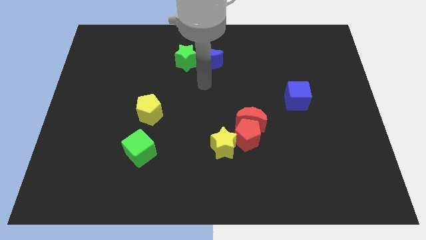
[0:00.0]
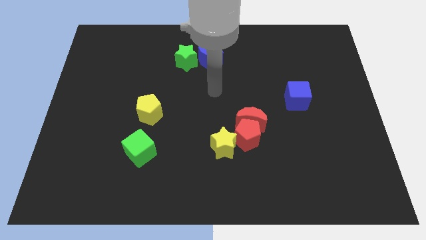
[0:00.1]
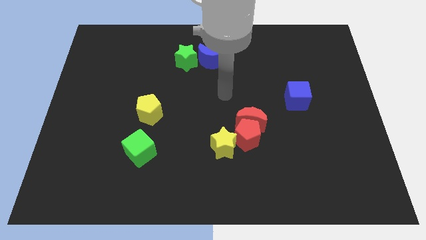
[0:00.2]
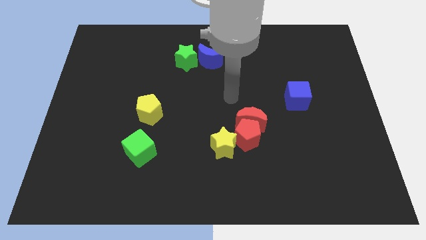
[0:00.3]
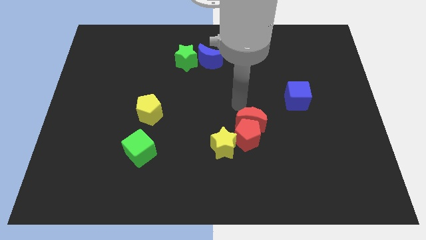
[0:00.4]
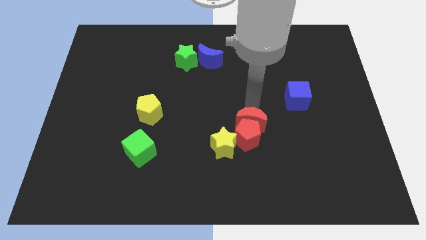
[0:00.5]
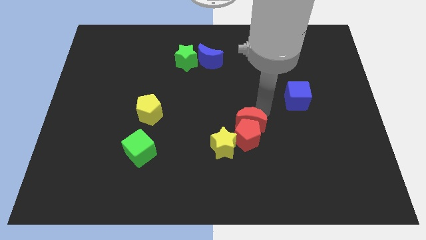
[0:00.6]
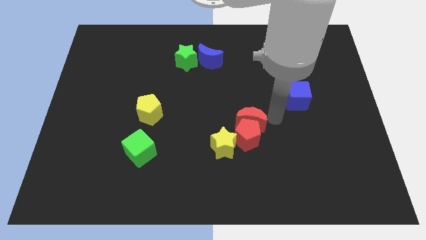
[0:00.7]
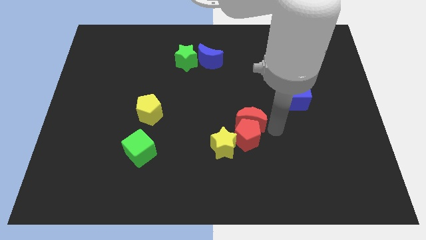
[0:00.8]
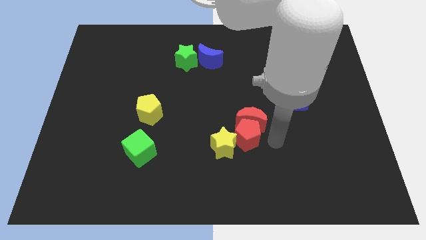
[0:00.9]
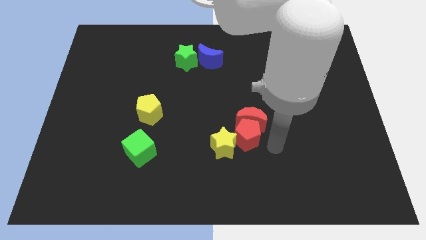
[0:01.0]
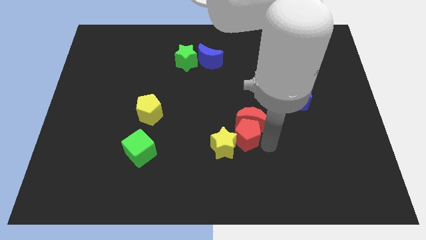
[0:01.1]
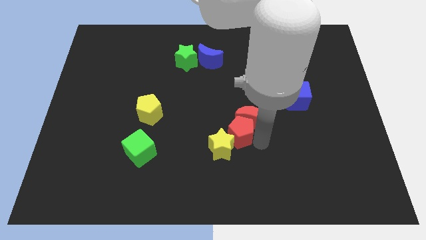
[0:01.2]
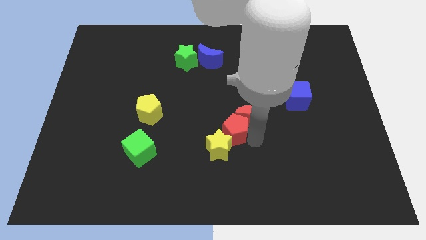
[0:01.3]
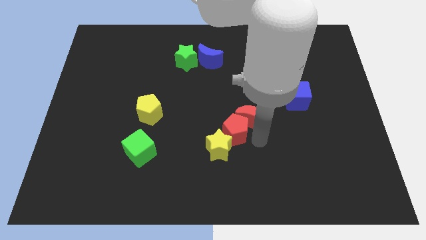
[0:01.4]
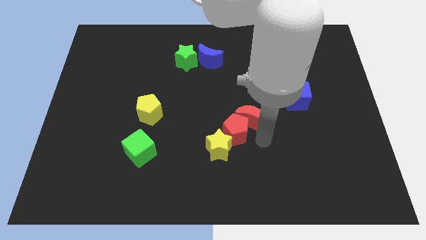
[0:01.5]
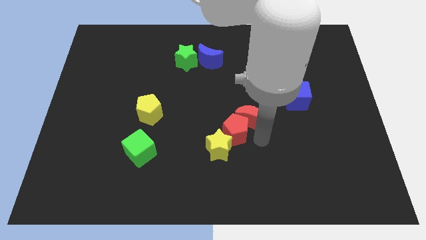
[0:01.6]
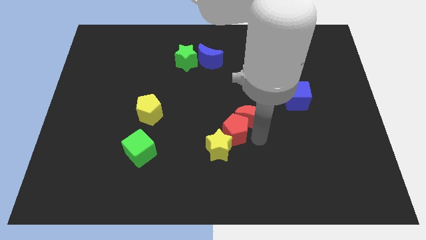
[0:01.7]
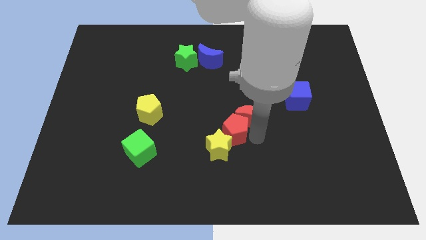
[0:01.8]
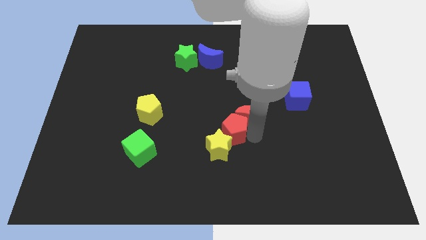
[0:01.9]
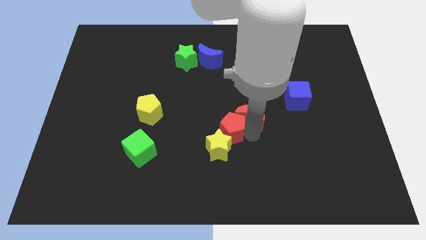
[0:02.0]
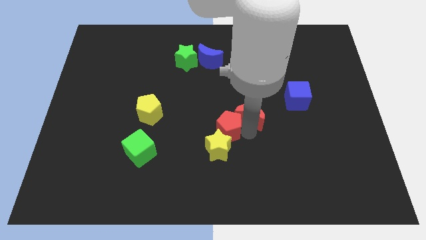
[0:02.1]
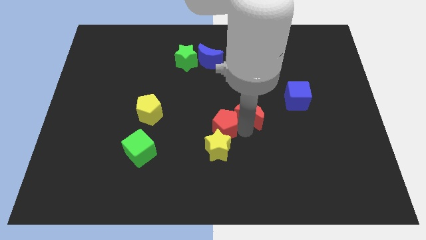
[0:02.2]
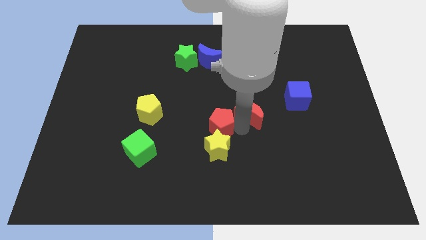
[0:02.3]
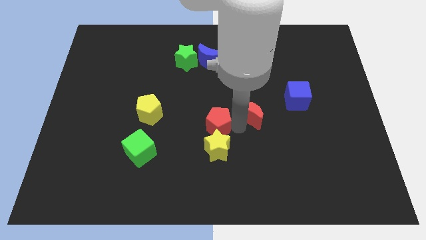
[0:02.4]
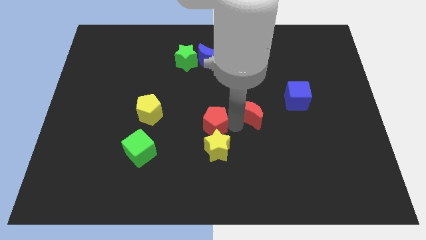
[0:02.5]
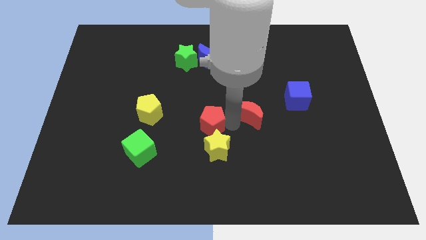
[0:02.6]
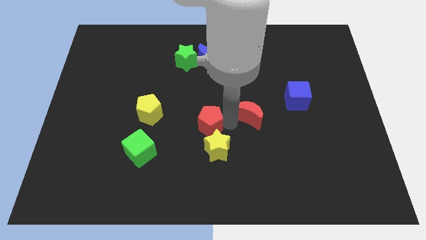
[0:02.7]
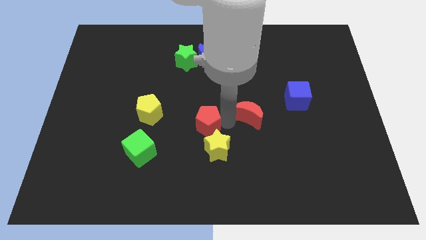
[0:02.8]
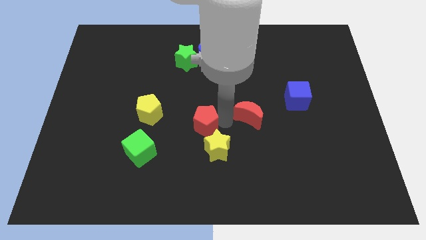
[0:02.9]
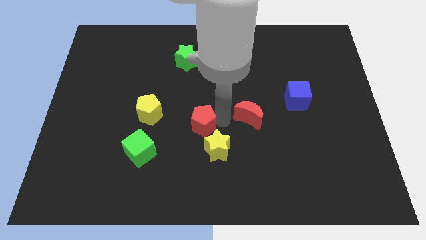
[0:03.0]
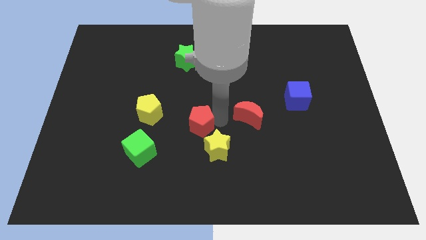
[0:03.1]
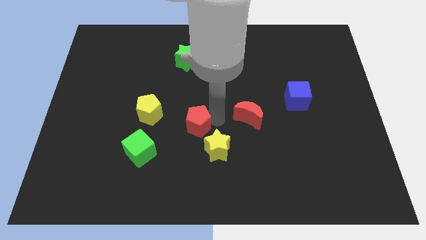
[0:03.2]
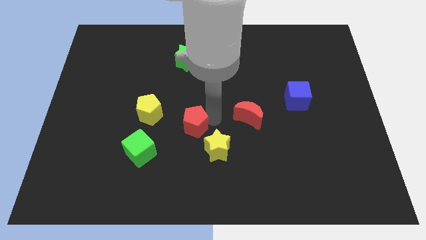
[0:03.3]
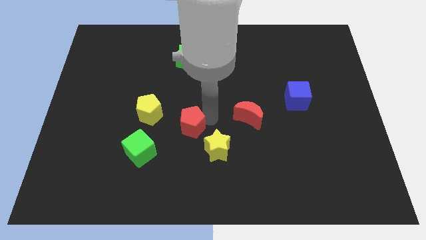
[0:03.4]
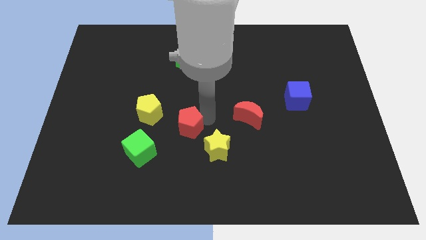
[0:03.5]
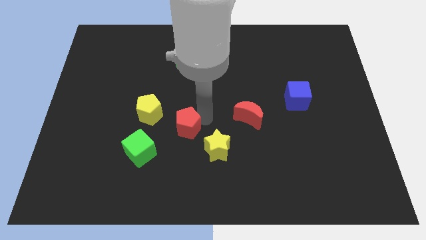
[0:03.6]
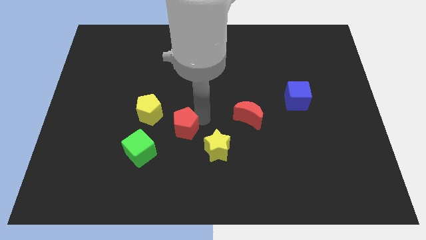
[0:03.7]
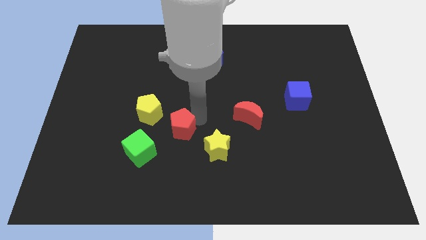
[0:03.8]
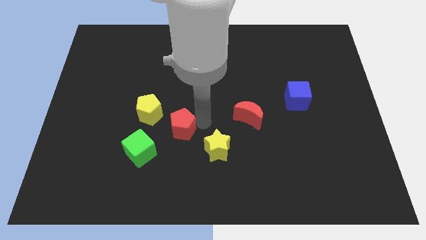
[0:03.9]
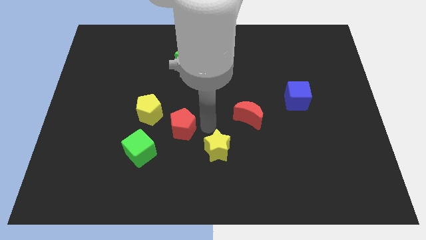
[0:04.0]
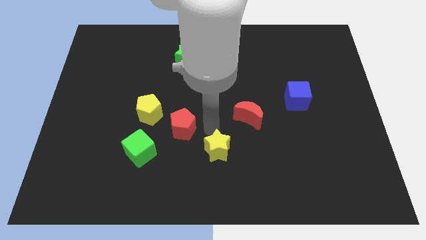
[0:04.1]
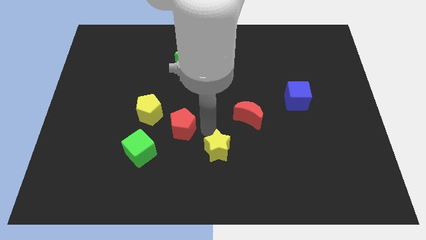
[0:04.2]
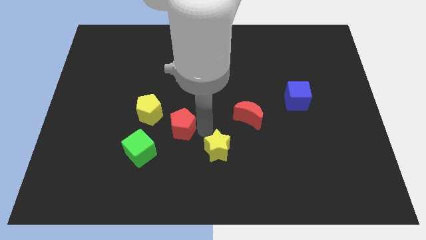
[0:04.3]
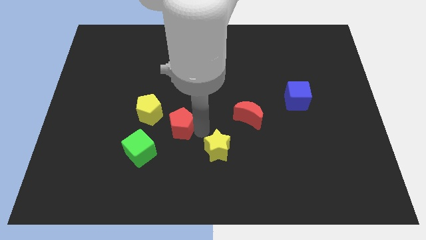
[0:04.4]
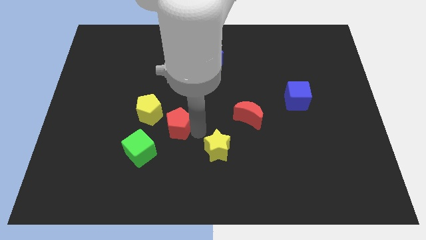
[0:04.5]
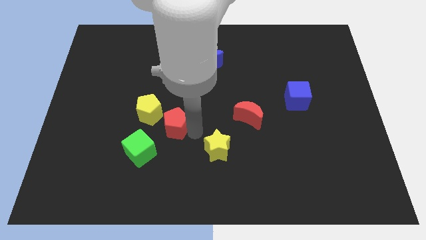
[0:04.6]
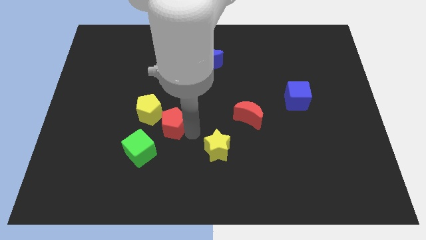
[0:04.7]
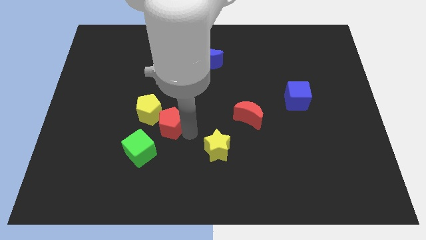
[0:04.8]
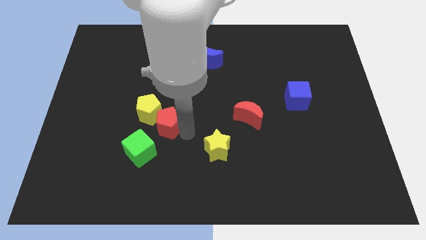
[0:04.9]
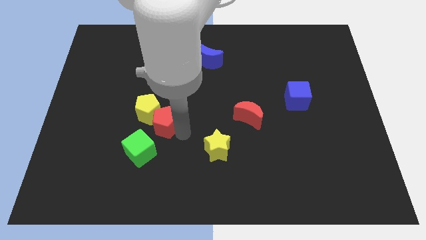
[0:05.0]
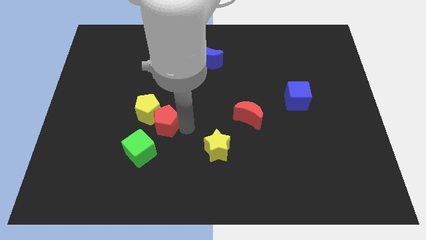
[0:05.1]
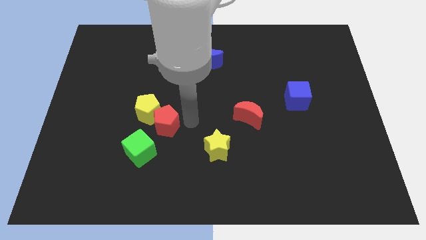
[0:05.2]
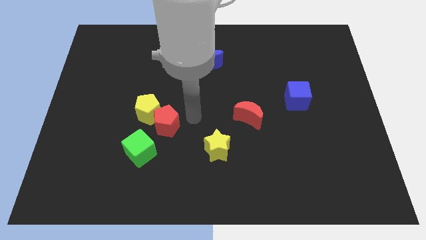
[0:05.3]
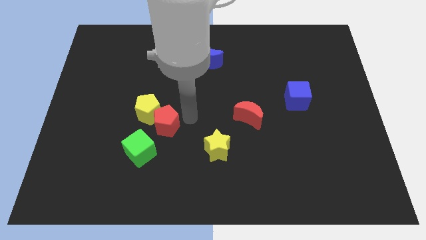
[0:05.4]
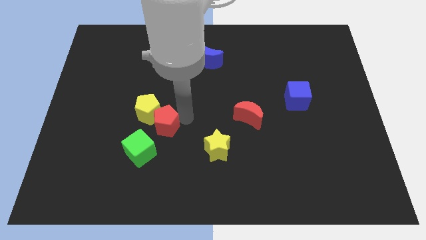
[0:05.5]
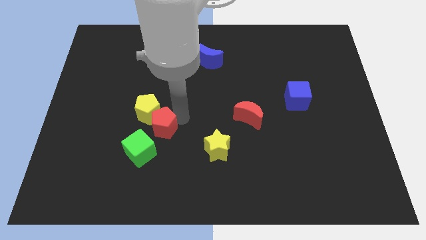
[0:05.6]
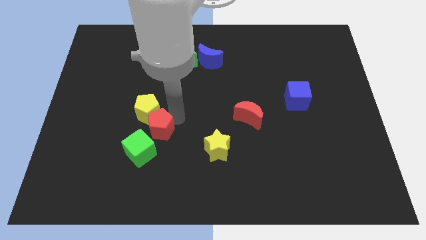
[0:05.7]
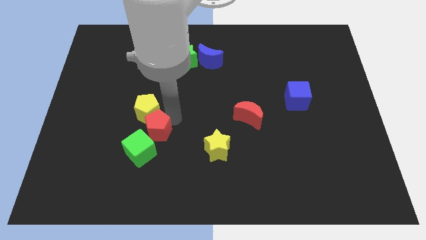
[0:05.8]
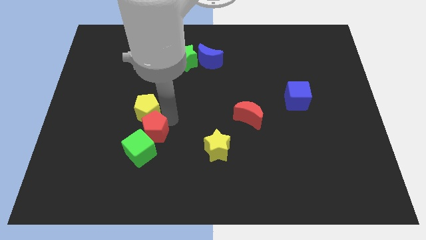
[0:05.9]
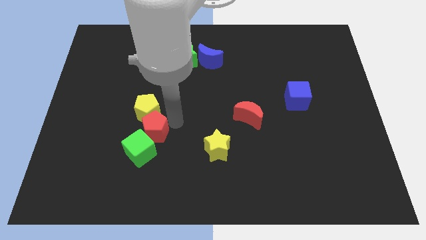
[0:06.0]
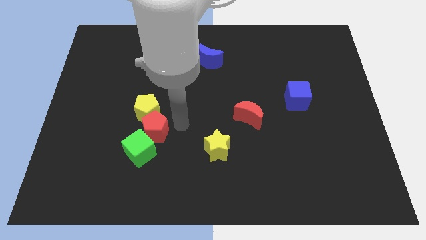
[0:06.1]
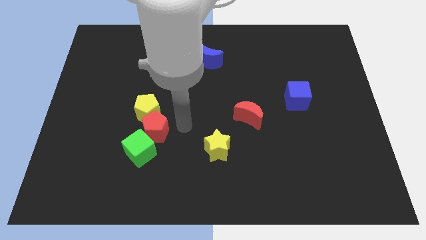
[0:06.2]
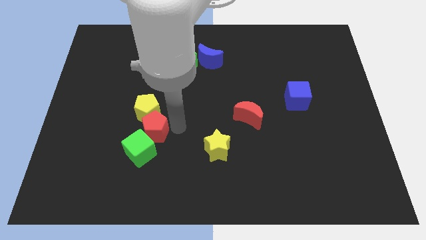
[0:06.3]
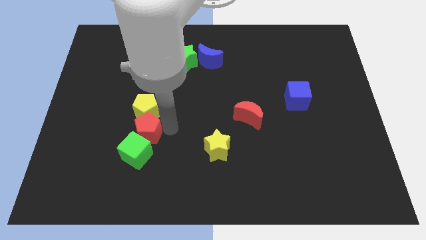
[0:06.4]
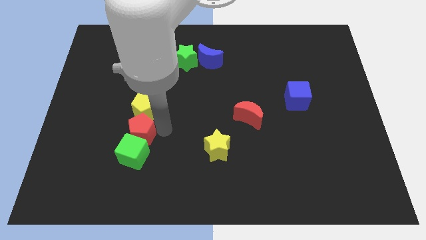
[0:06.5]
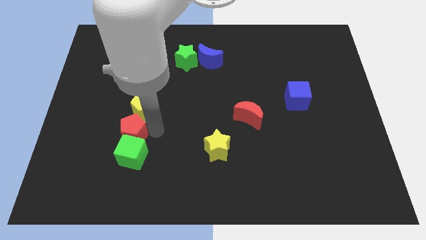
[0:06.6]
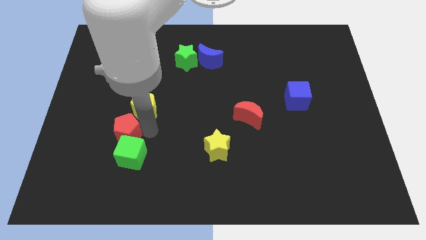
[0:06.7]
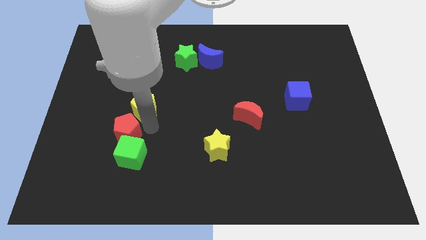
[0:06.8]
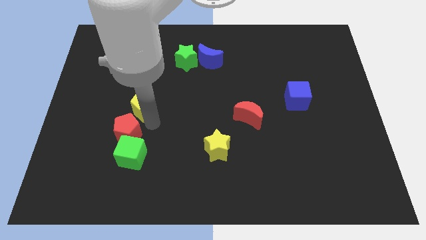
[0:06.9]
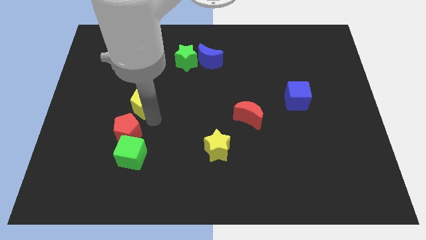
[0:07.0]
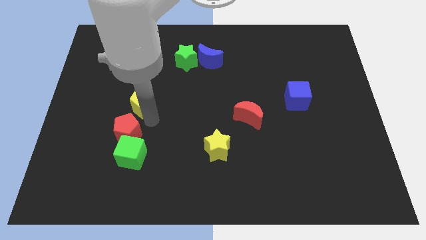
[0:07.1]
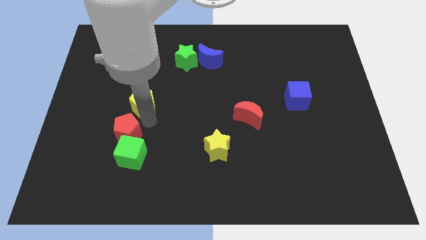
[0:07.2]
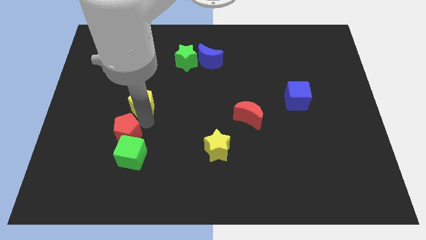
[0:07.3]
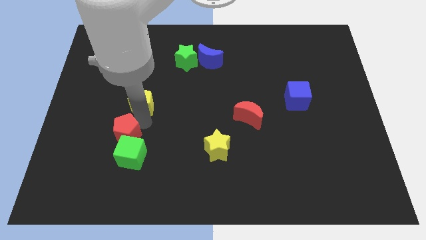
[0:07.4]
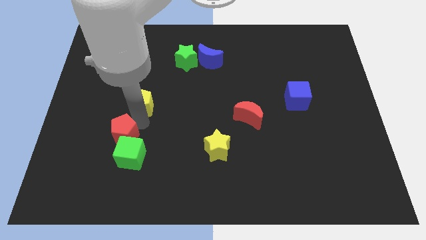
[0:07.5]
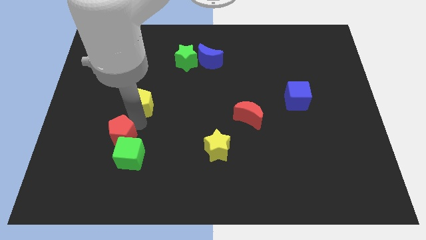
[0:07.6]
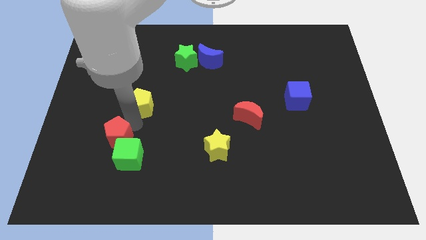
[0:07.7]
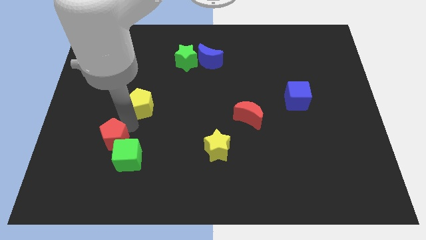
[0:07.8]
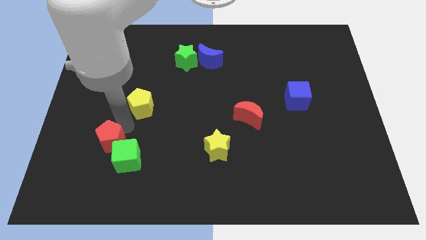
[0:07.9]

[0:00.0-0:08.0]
put the red pentagon to the left of the green cube
